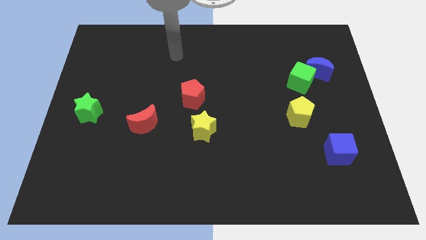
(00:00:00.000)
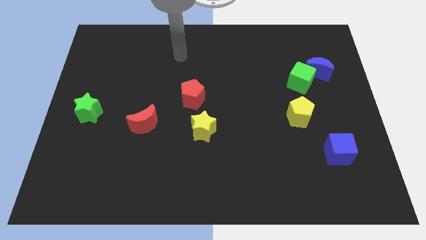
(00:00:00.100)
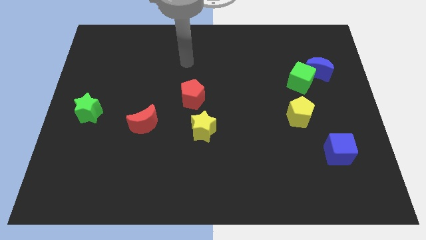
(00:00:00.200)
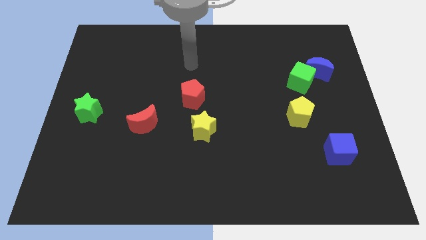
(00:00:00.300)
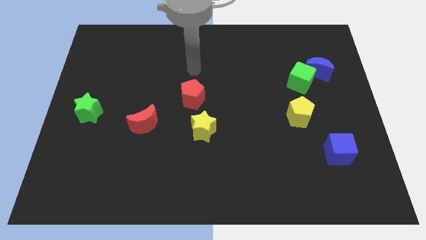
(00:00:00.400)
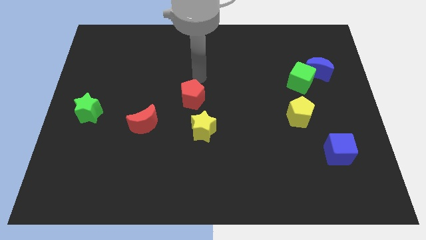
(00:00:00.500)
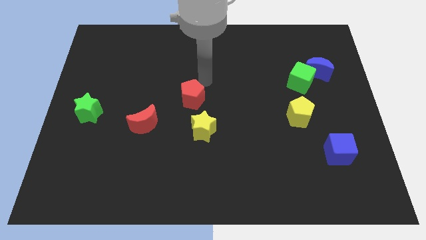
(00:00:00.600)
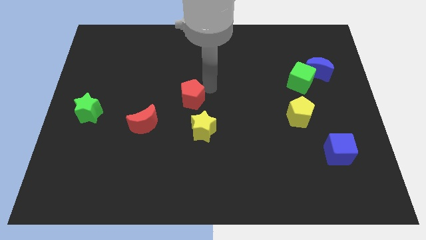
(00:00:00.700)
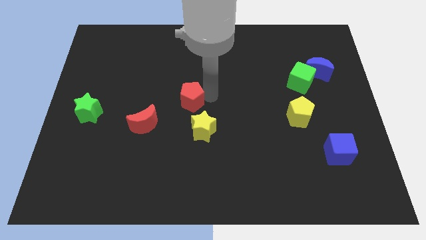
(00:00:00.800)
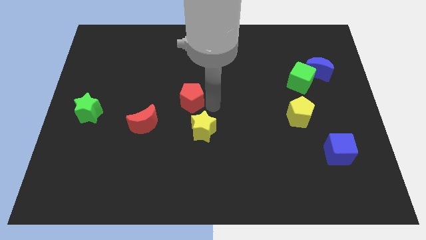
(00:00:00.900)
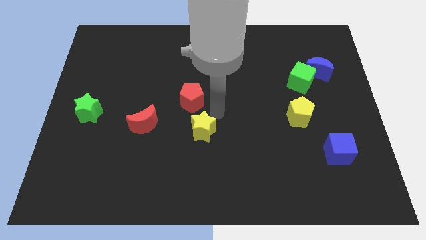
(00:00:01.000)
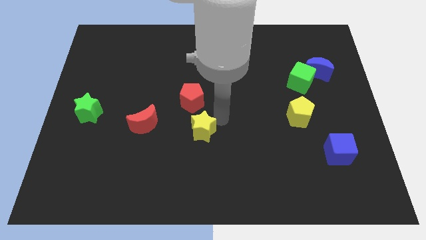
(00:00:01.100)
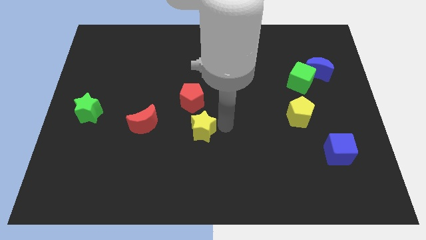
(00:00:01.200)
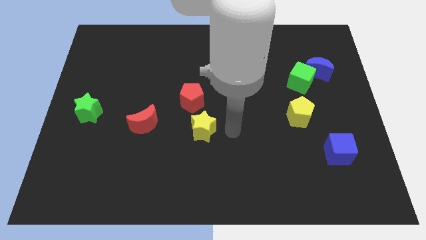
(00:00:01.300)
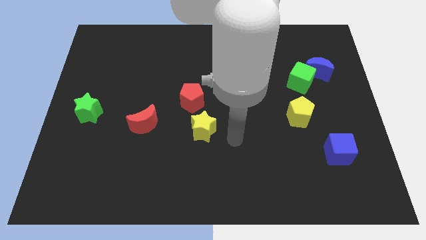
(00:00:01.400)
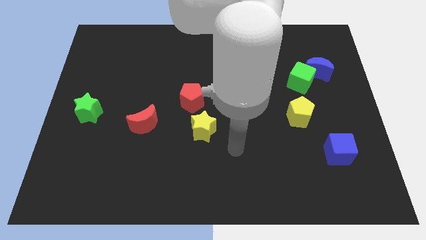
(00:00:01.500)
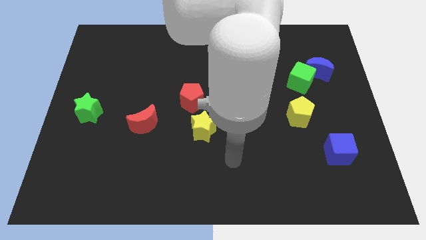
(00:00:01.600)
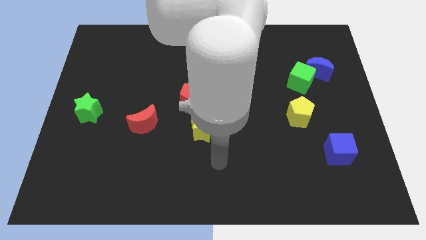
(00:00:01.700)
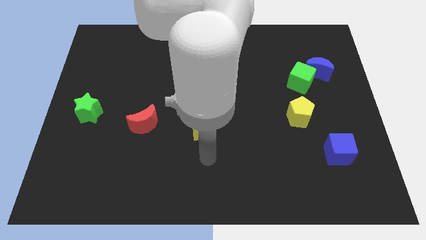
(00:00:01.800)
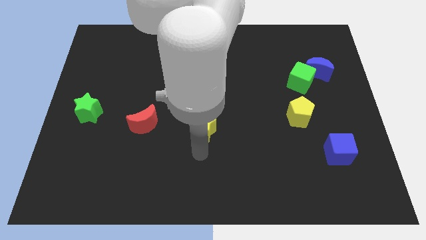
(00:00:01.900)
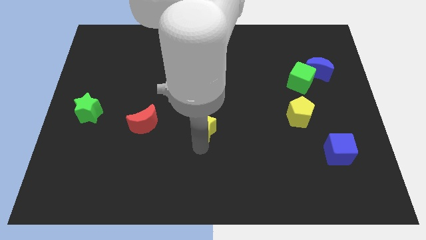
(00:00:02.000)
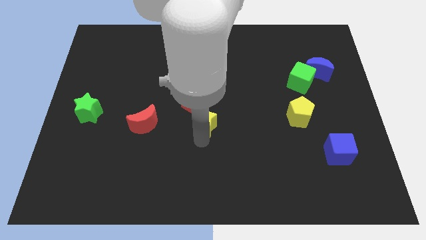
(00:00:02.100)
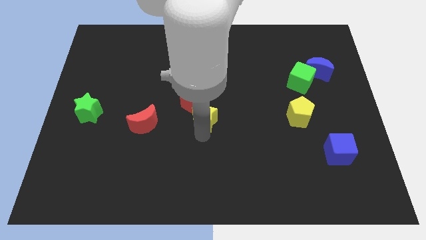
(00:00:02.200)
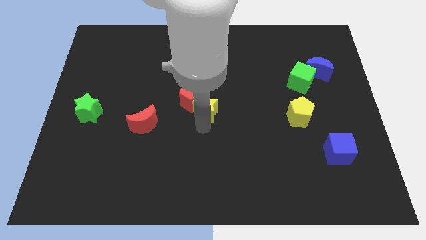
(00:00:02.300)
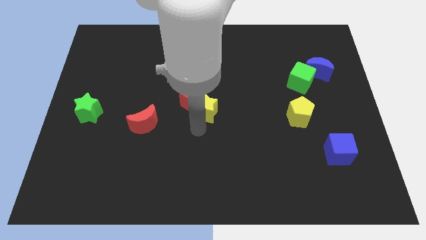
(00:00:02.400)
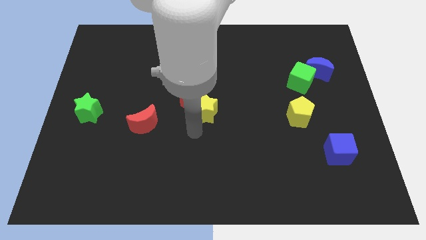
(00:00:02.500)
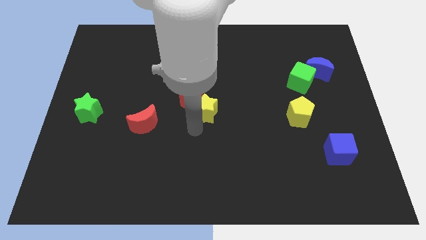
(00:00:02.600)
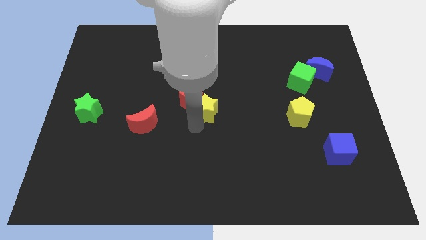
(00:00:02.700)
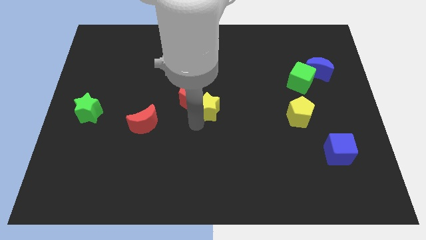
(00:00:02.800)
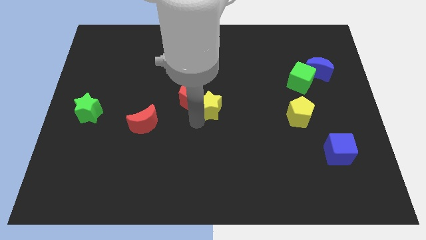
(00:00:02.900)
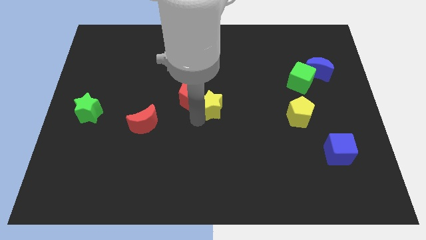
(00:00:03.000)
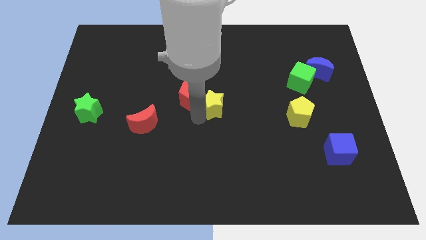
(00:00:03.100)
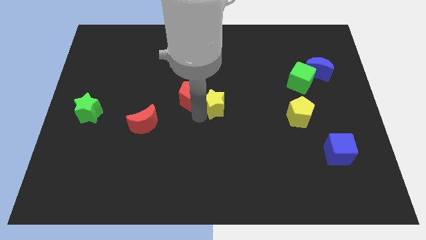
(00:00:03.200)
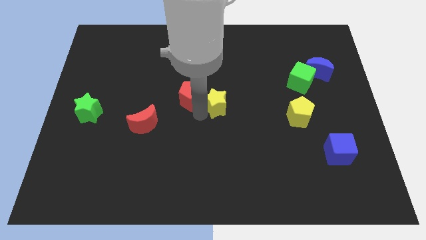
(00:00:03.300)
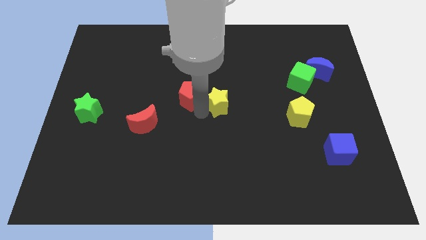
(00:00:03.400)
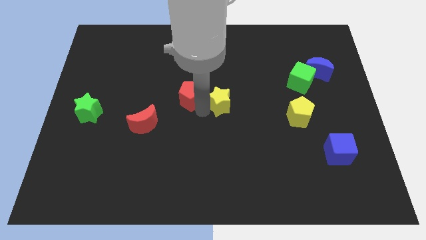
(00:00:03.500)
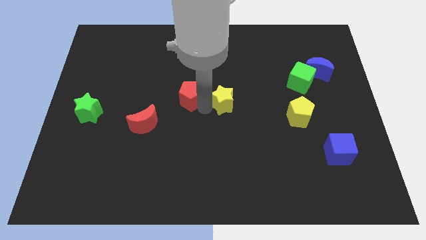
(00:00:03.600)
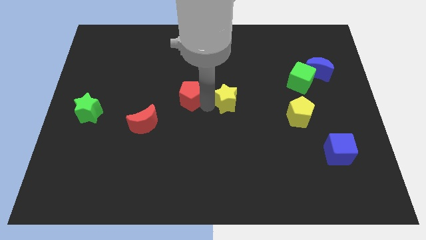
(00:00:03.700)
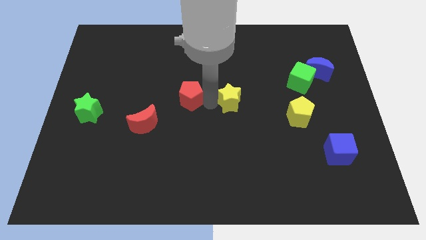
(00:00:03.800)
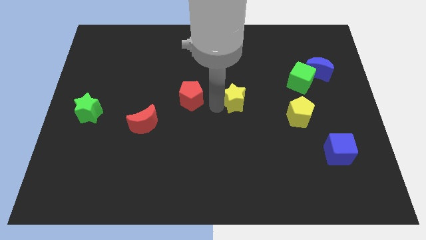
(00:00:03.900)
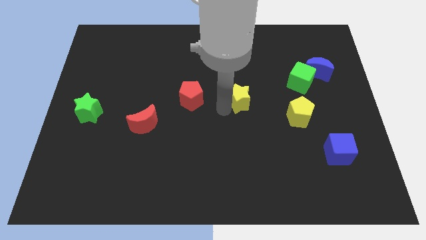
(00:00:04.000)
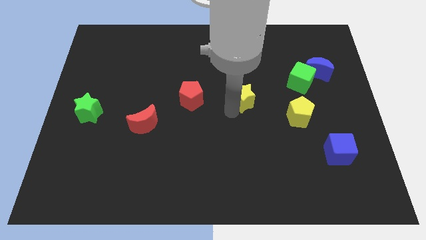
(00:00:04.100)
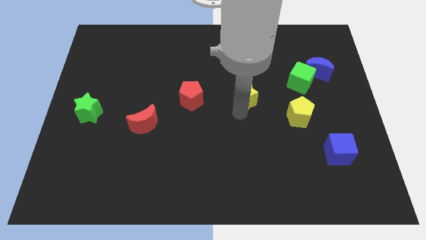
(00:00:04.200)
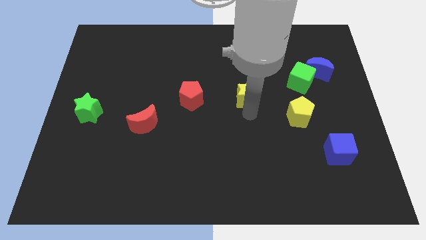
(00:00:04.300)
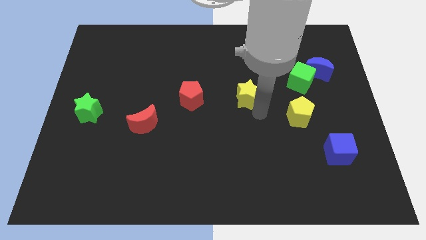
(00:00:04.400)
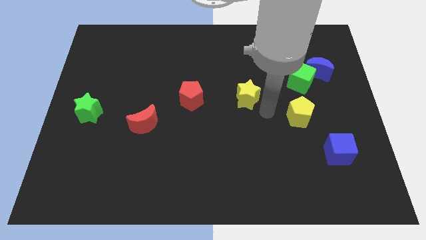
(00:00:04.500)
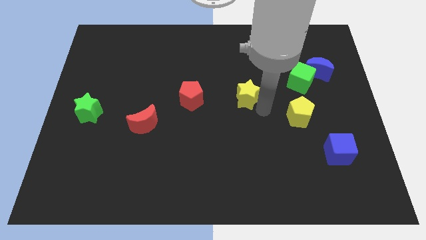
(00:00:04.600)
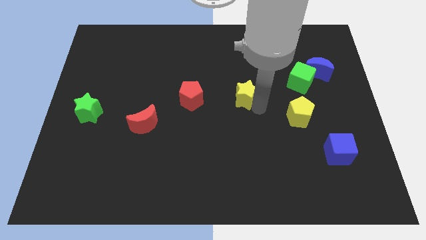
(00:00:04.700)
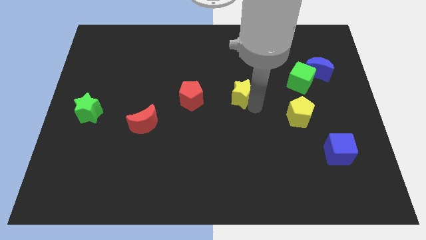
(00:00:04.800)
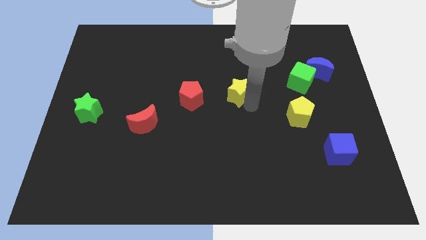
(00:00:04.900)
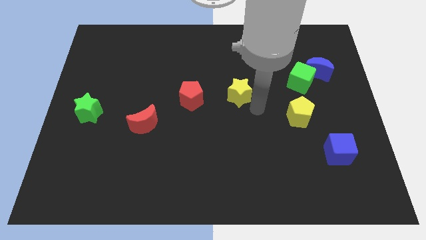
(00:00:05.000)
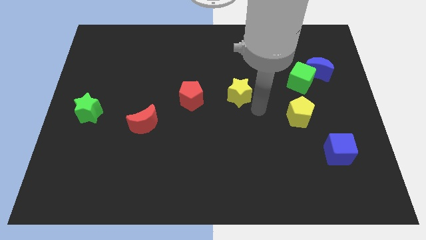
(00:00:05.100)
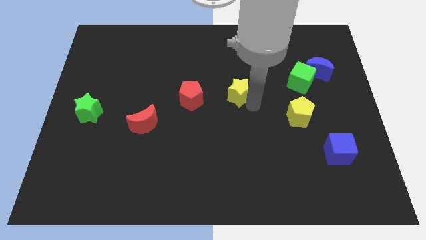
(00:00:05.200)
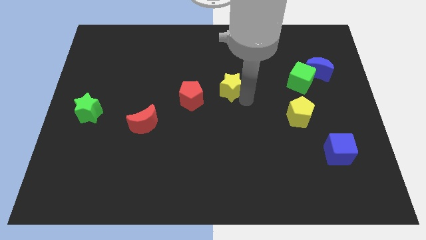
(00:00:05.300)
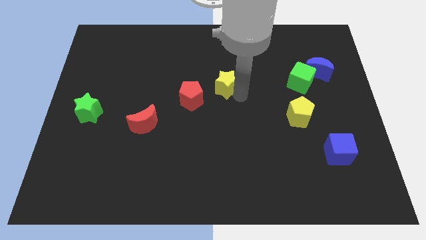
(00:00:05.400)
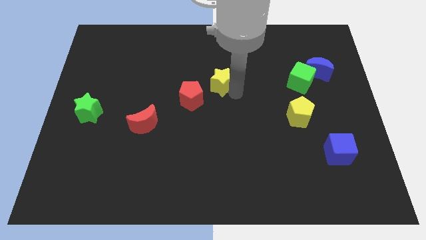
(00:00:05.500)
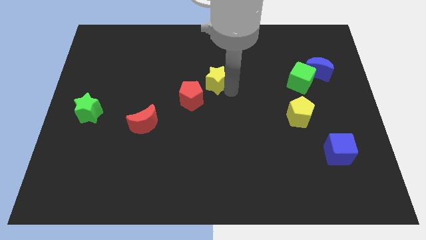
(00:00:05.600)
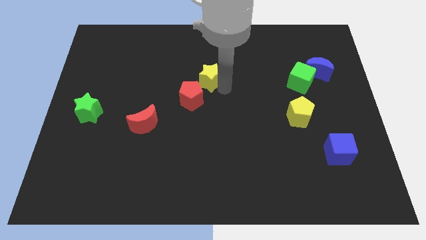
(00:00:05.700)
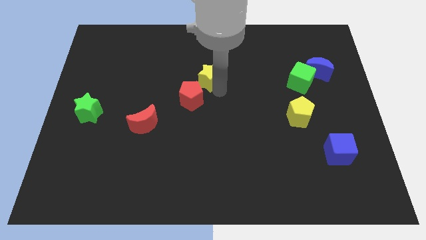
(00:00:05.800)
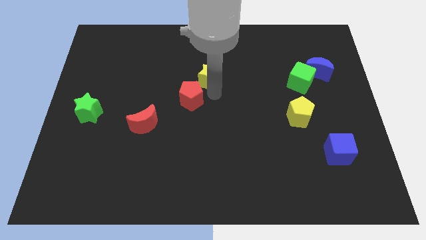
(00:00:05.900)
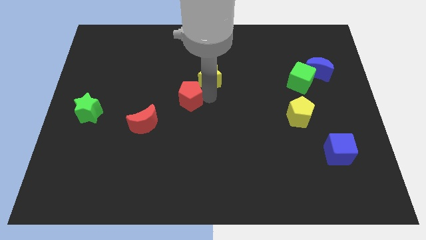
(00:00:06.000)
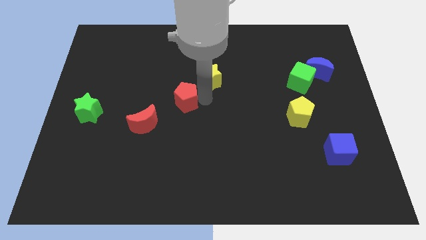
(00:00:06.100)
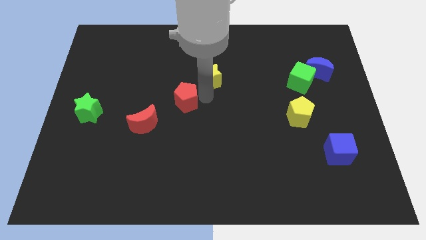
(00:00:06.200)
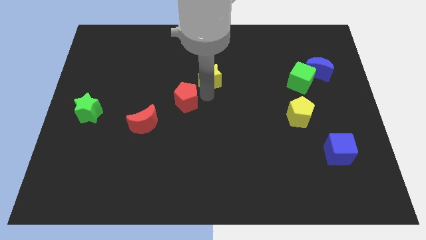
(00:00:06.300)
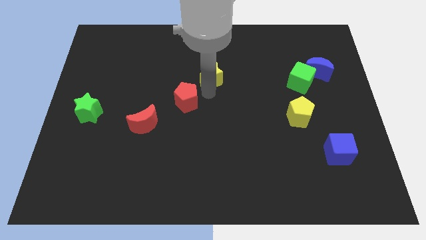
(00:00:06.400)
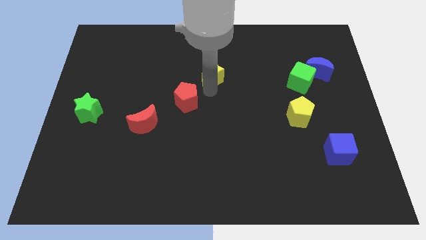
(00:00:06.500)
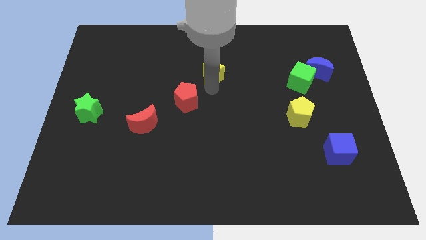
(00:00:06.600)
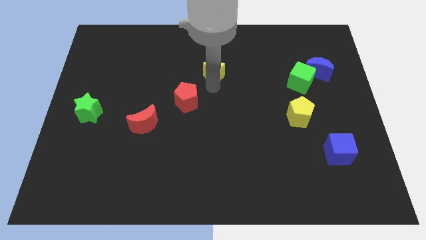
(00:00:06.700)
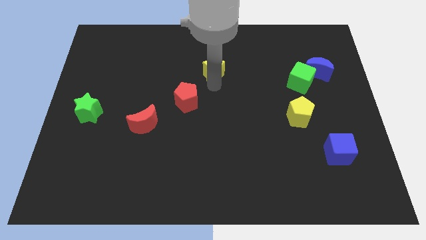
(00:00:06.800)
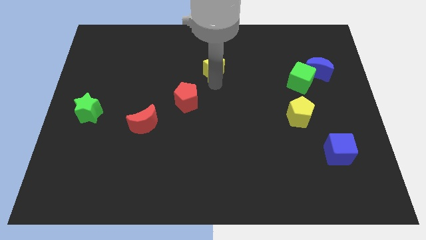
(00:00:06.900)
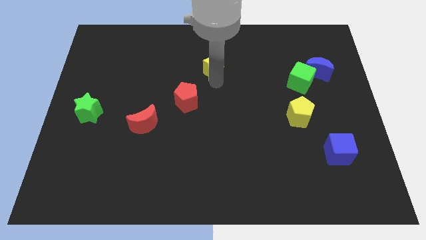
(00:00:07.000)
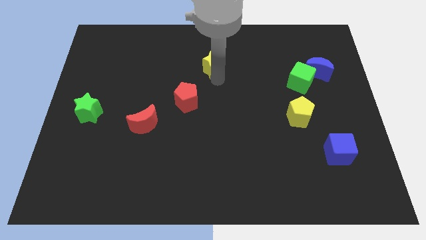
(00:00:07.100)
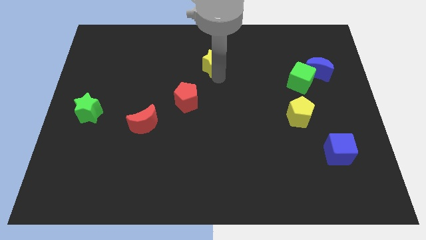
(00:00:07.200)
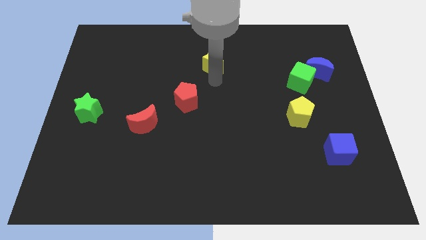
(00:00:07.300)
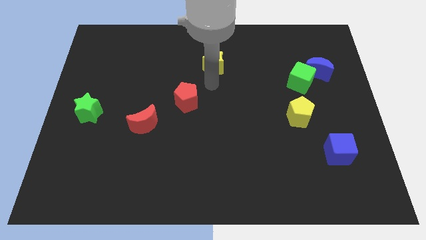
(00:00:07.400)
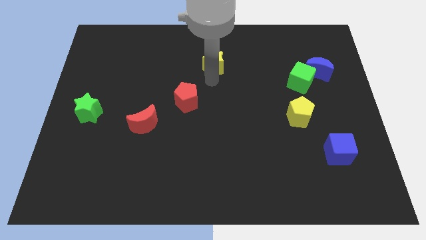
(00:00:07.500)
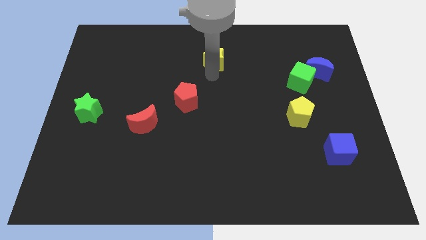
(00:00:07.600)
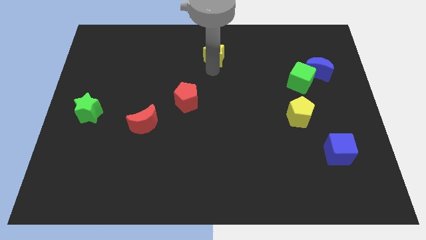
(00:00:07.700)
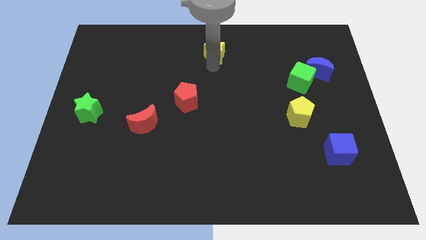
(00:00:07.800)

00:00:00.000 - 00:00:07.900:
put the yellow star to the top
